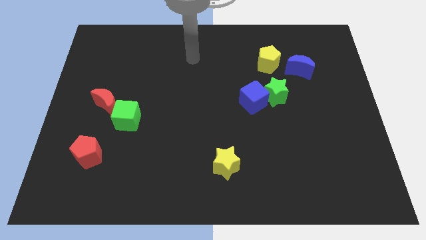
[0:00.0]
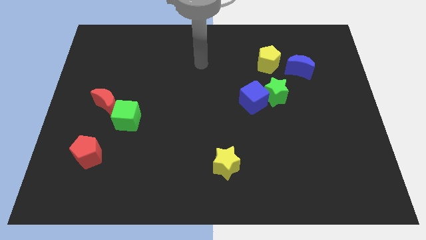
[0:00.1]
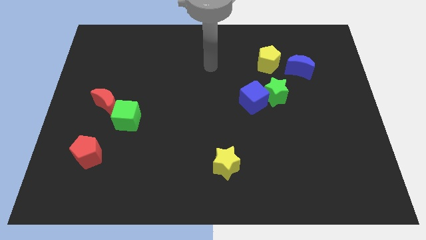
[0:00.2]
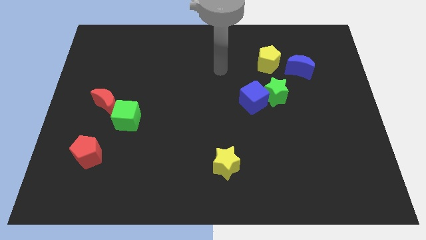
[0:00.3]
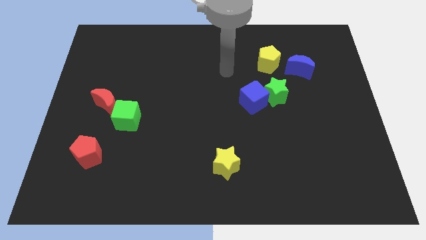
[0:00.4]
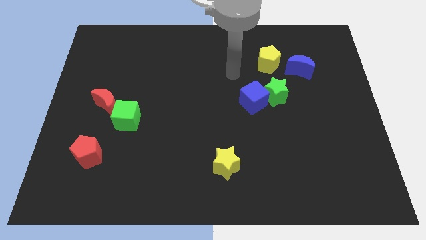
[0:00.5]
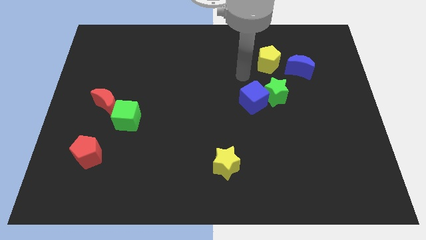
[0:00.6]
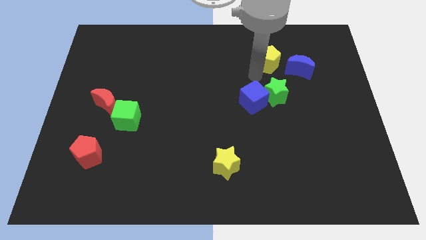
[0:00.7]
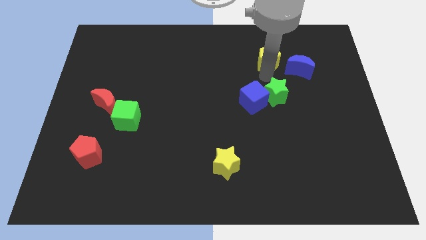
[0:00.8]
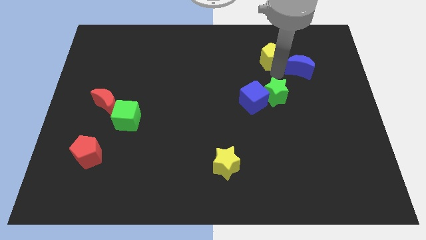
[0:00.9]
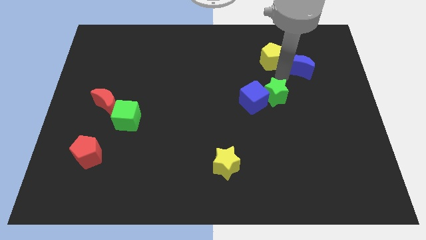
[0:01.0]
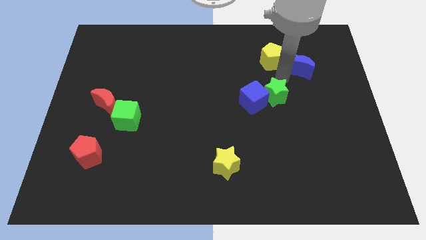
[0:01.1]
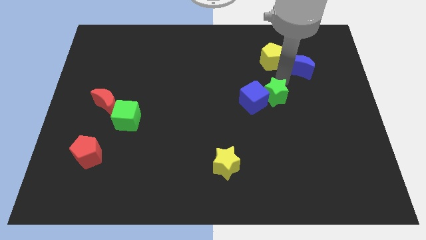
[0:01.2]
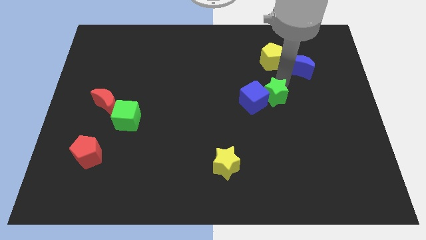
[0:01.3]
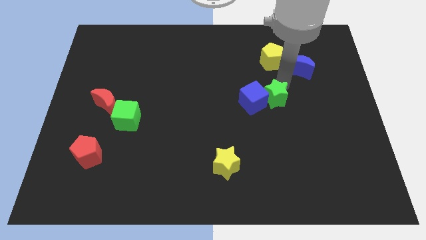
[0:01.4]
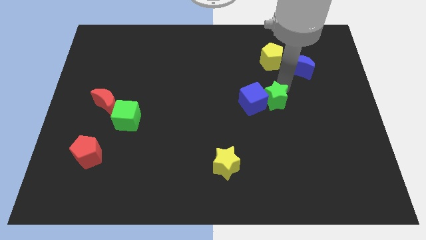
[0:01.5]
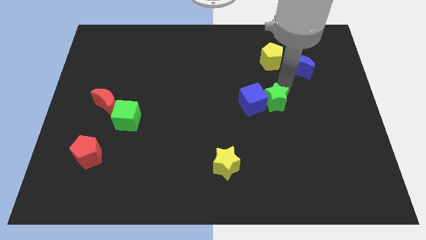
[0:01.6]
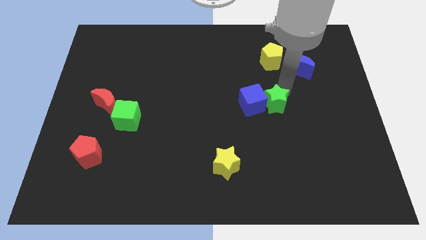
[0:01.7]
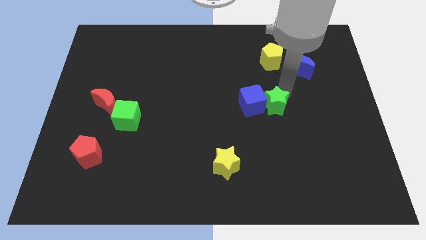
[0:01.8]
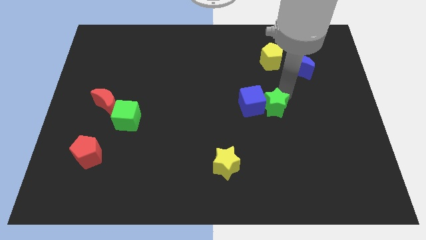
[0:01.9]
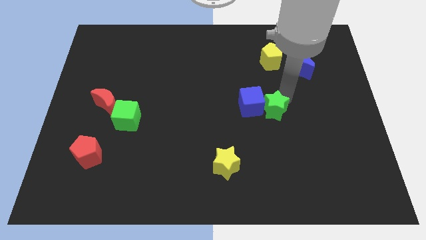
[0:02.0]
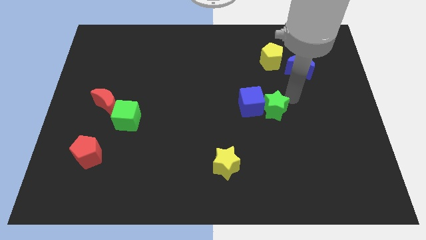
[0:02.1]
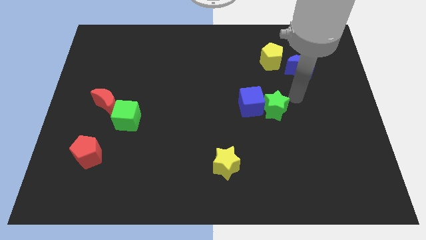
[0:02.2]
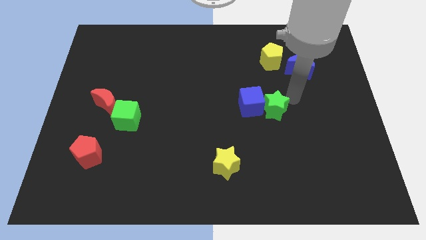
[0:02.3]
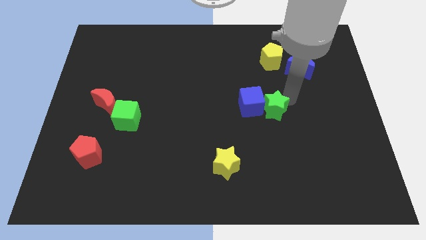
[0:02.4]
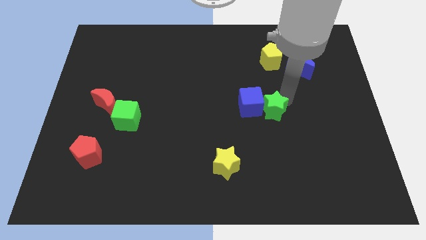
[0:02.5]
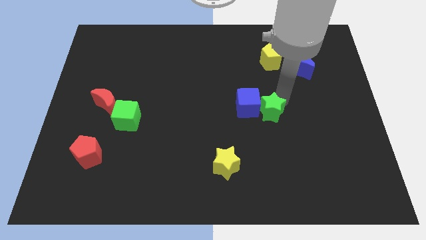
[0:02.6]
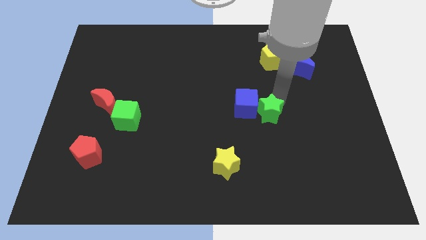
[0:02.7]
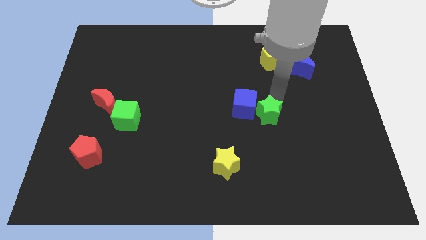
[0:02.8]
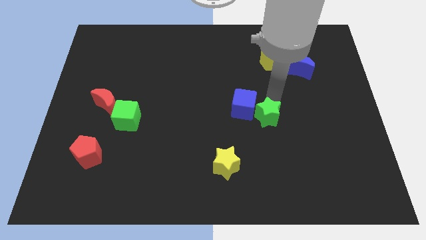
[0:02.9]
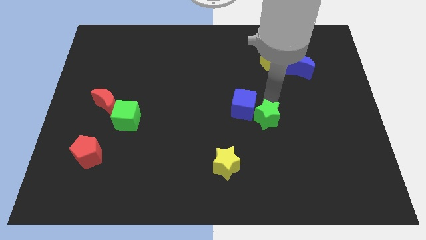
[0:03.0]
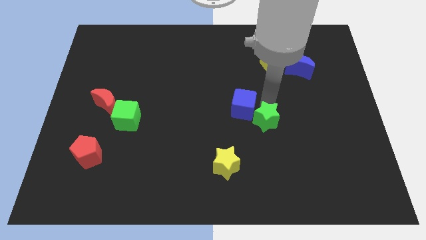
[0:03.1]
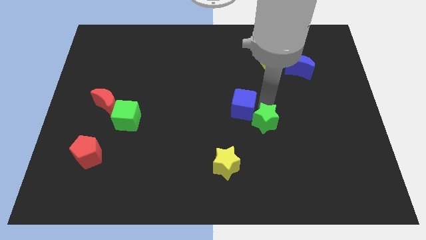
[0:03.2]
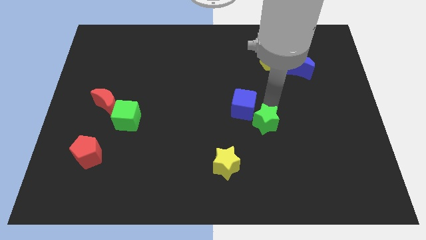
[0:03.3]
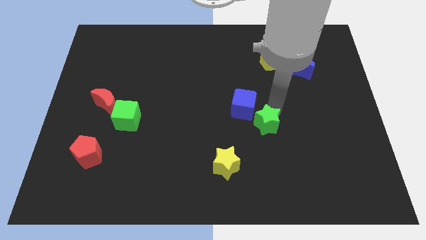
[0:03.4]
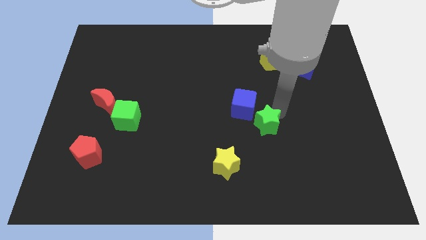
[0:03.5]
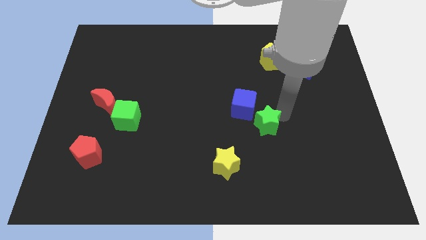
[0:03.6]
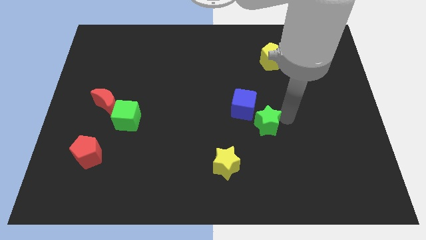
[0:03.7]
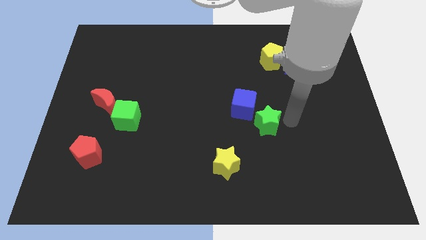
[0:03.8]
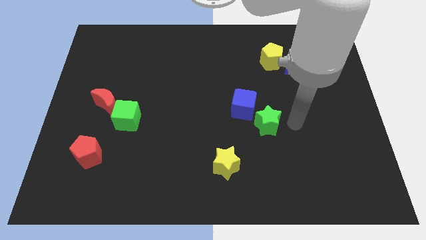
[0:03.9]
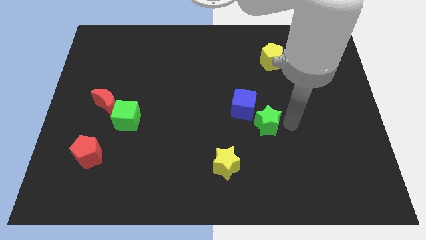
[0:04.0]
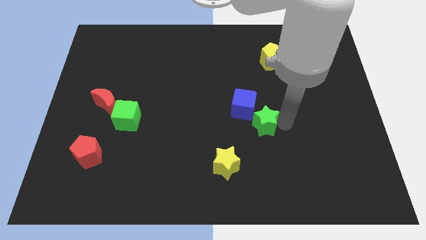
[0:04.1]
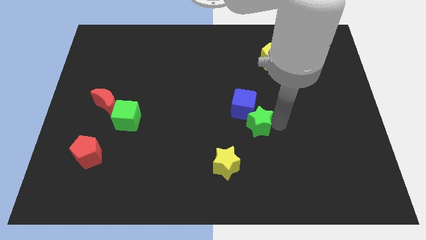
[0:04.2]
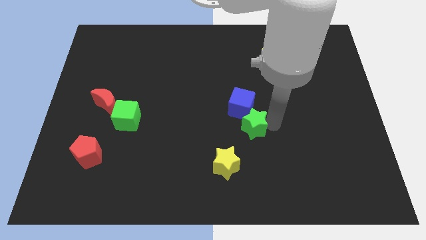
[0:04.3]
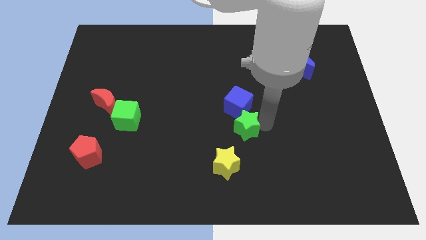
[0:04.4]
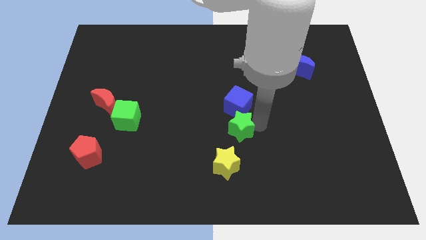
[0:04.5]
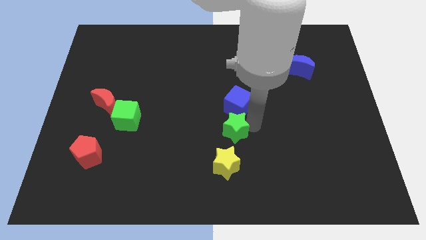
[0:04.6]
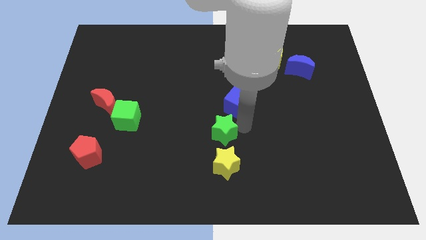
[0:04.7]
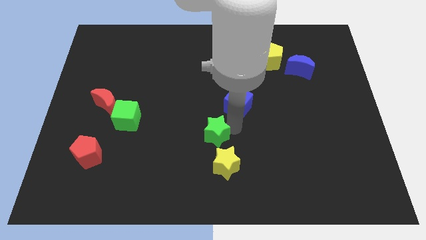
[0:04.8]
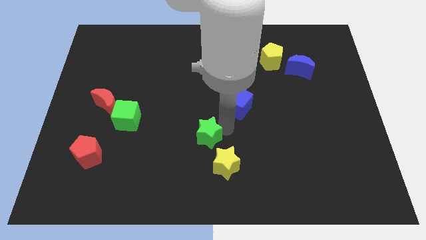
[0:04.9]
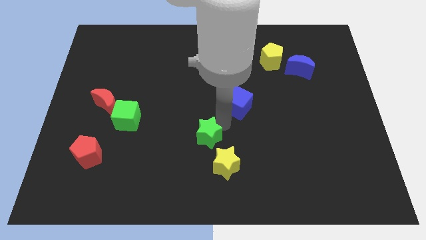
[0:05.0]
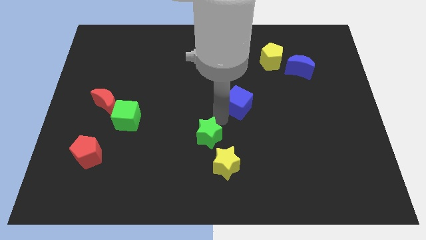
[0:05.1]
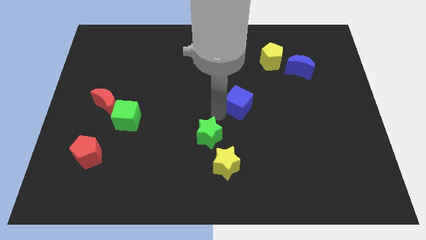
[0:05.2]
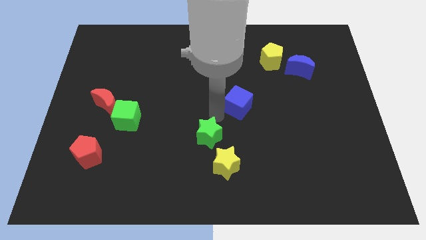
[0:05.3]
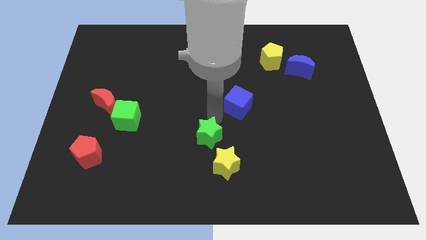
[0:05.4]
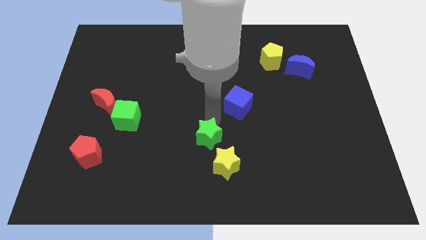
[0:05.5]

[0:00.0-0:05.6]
push the green star downwards and left diagonally

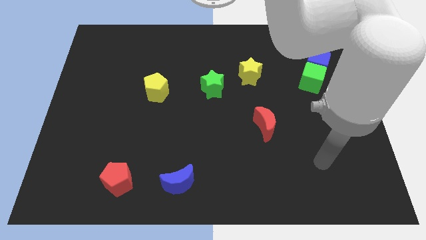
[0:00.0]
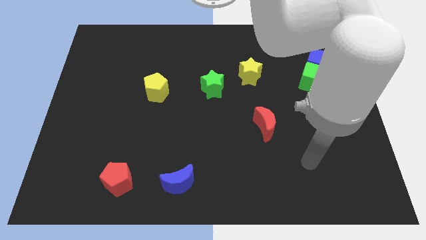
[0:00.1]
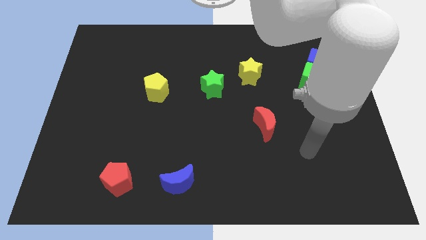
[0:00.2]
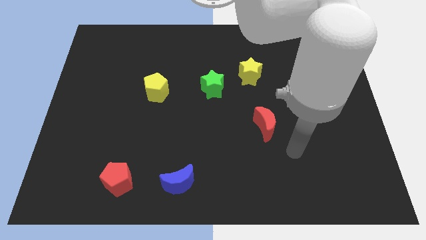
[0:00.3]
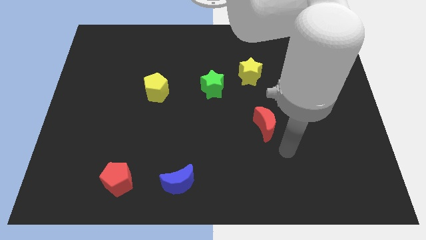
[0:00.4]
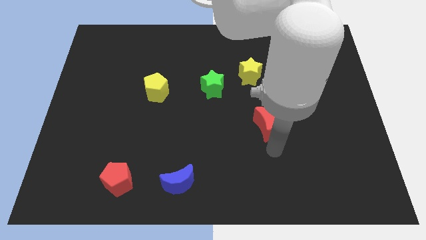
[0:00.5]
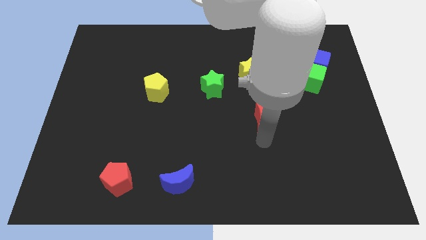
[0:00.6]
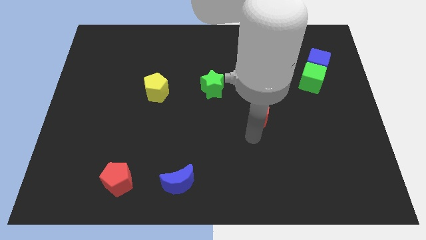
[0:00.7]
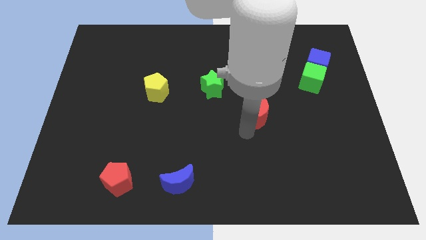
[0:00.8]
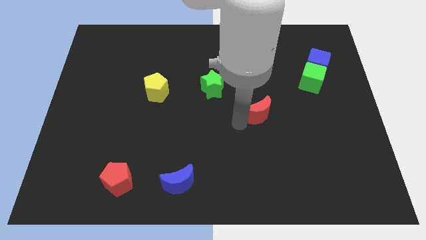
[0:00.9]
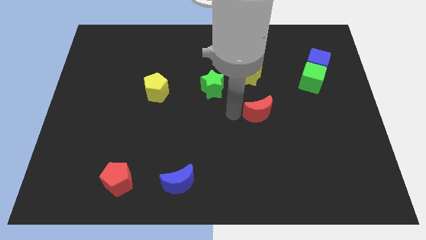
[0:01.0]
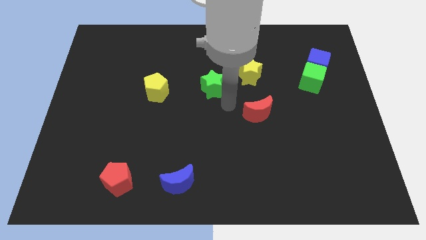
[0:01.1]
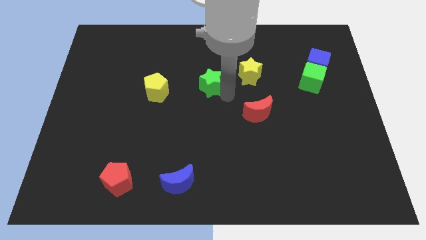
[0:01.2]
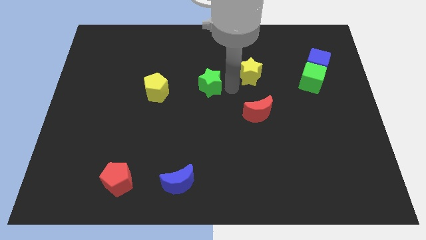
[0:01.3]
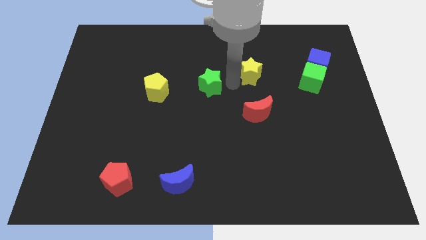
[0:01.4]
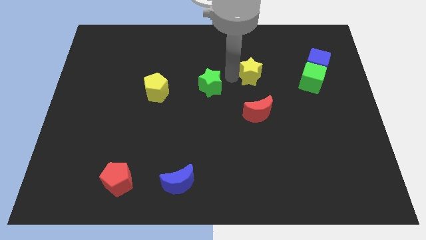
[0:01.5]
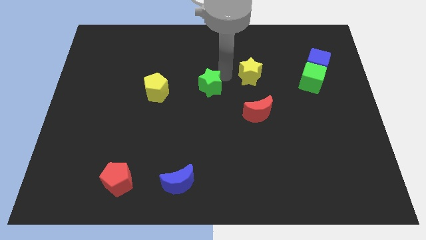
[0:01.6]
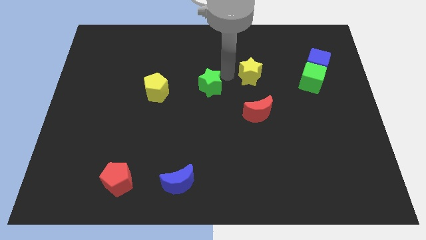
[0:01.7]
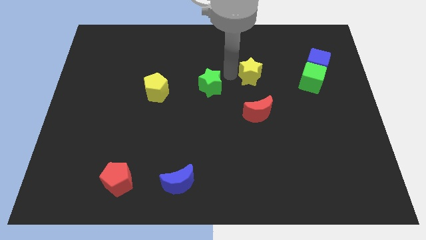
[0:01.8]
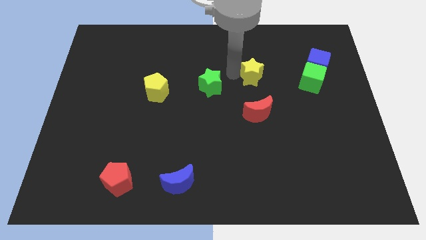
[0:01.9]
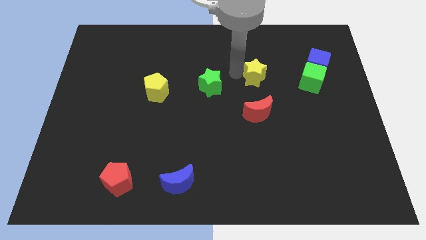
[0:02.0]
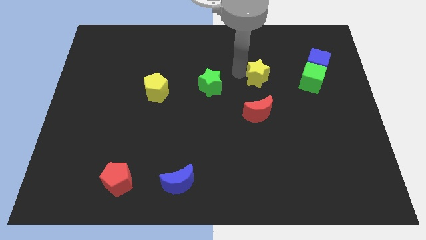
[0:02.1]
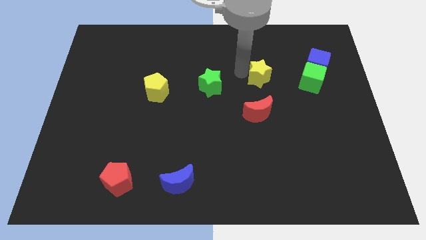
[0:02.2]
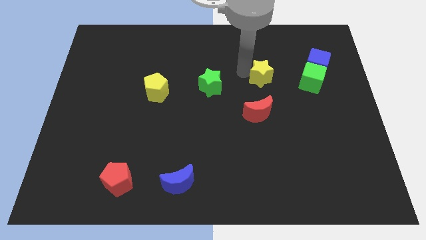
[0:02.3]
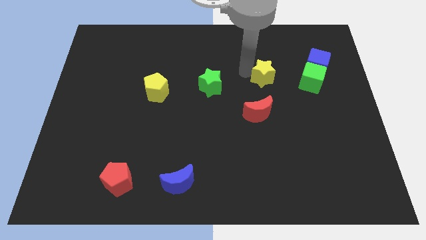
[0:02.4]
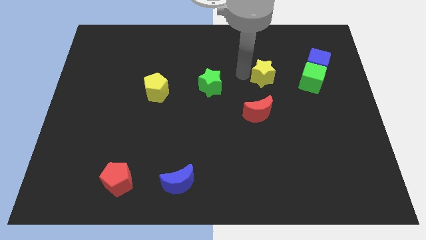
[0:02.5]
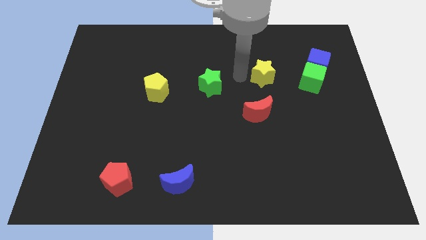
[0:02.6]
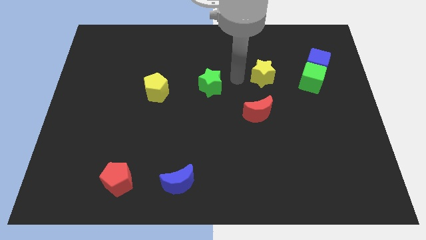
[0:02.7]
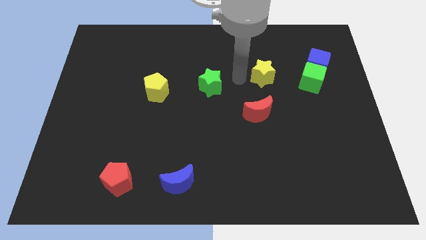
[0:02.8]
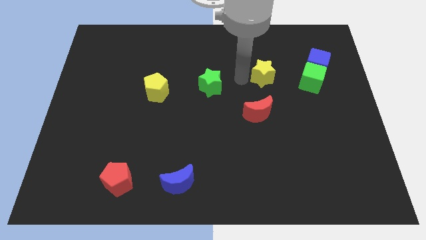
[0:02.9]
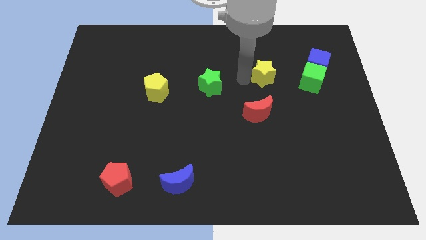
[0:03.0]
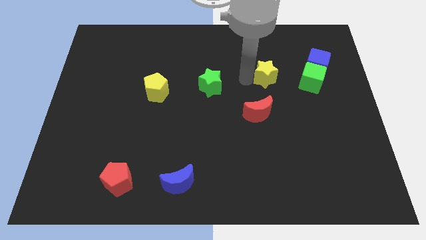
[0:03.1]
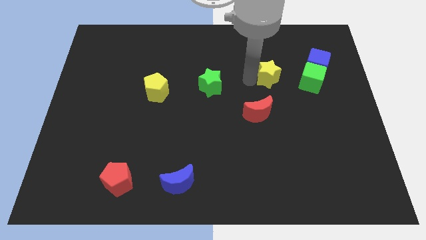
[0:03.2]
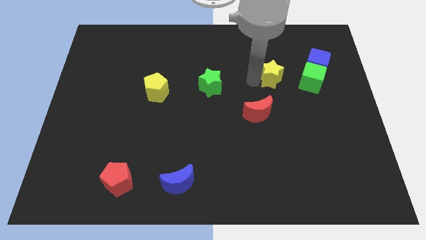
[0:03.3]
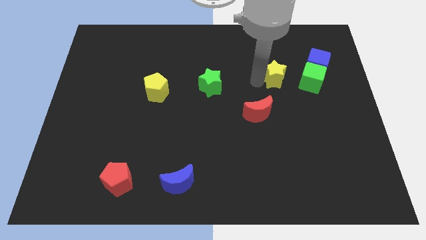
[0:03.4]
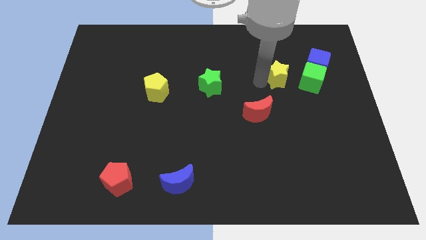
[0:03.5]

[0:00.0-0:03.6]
slightly slide the yellow star to the right
